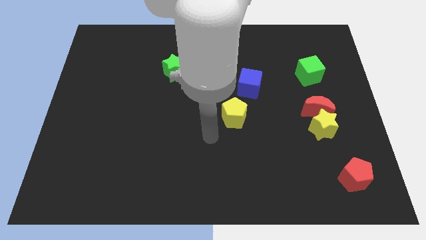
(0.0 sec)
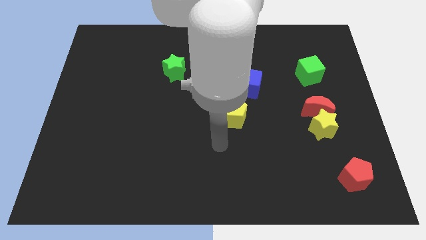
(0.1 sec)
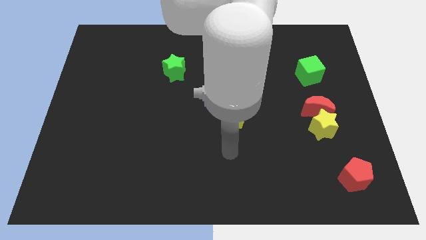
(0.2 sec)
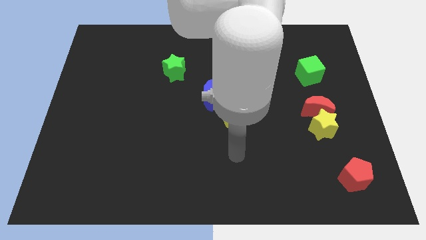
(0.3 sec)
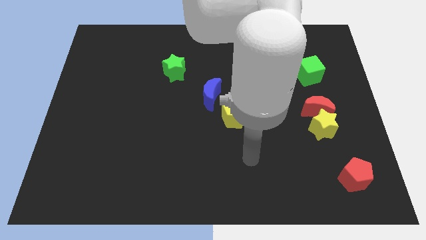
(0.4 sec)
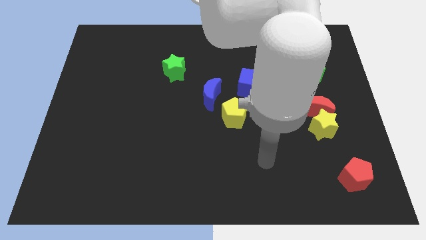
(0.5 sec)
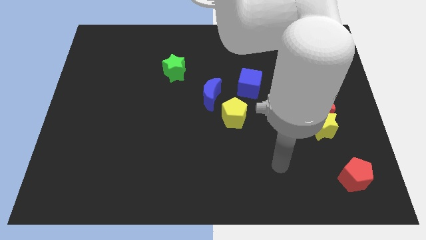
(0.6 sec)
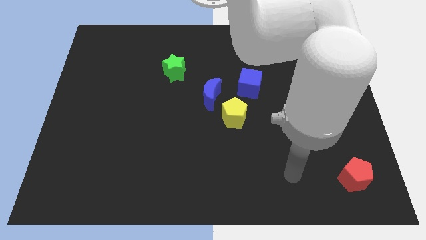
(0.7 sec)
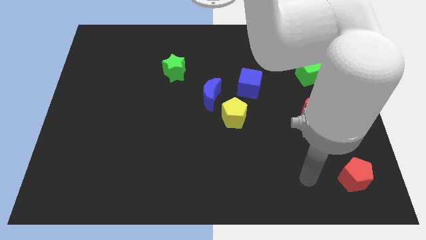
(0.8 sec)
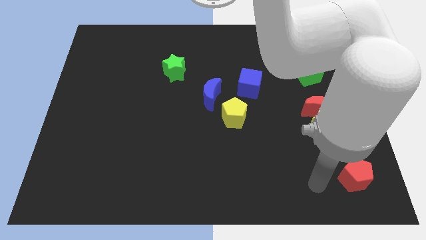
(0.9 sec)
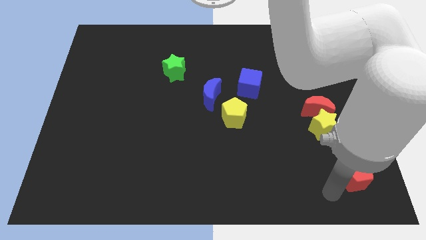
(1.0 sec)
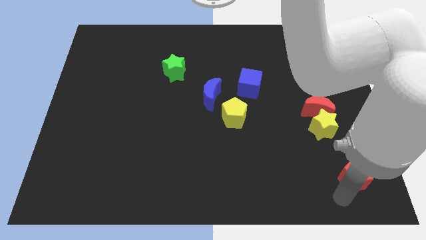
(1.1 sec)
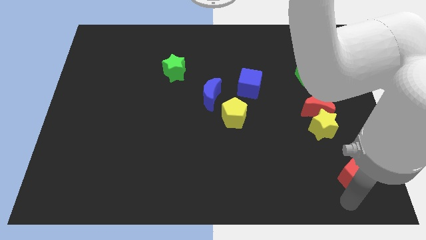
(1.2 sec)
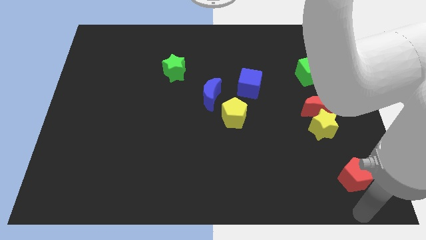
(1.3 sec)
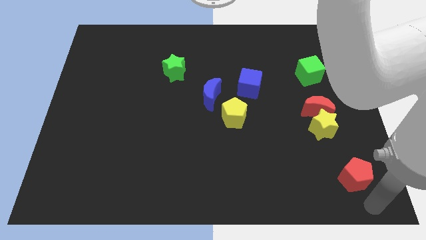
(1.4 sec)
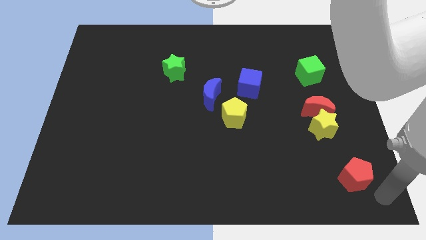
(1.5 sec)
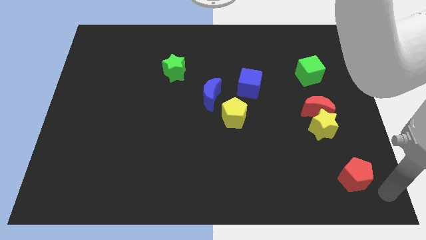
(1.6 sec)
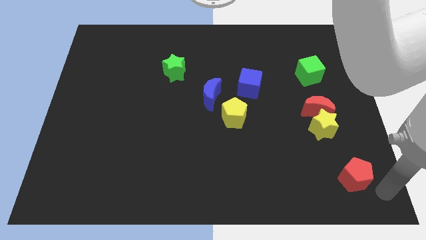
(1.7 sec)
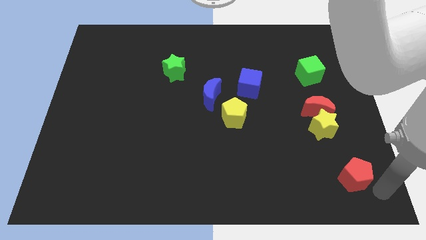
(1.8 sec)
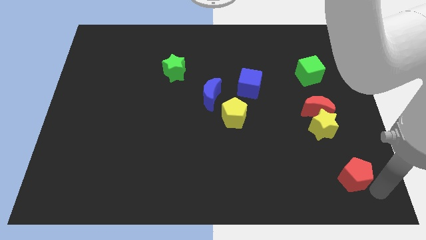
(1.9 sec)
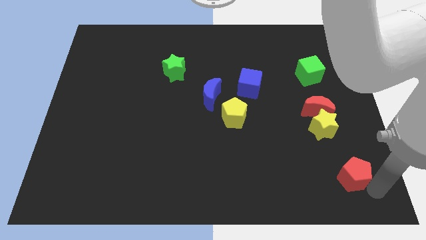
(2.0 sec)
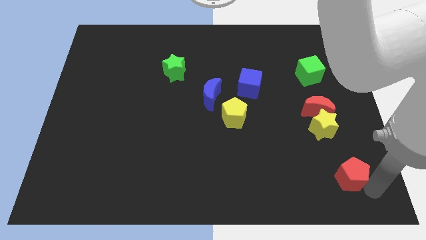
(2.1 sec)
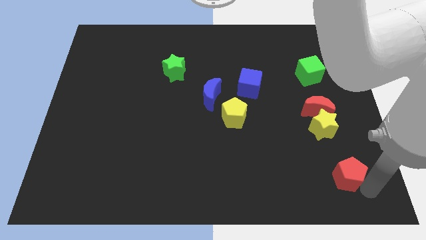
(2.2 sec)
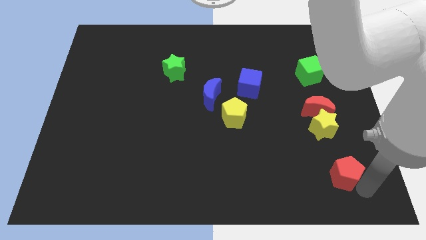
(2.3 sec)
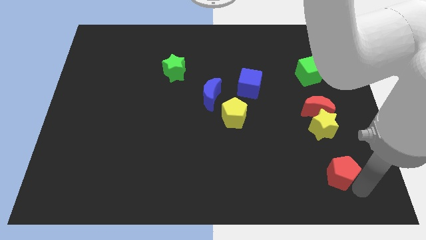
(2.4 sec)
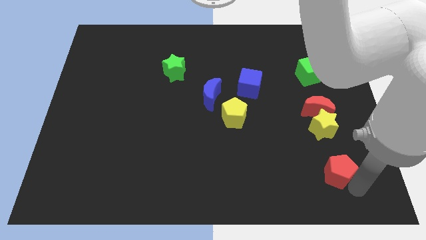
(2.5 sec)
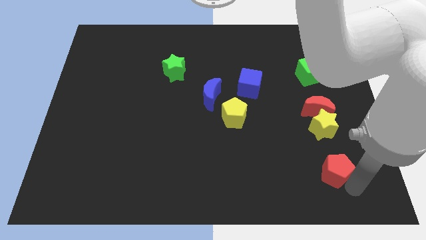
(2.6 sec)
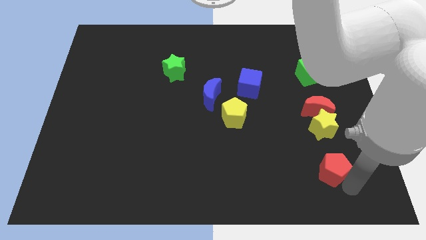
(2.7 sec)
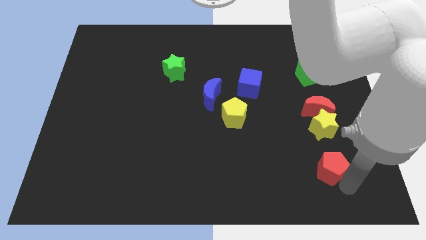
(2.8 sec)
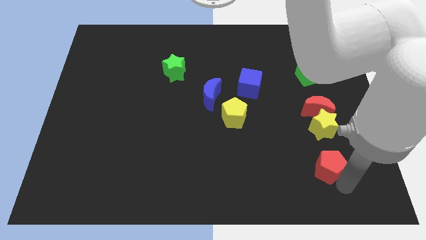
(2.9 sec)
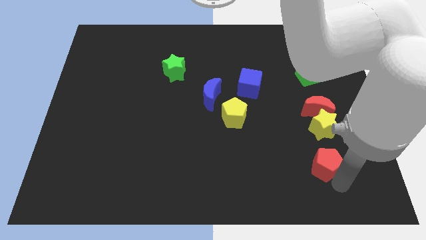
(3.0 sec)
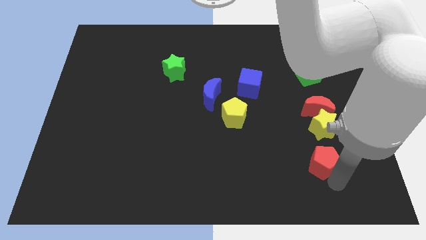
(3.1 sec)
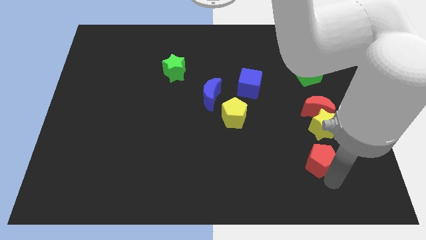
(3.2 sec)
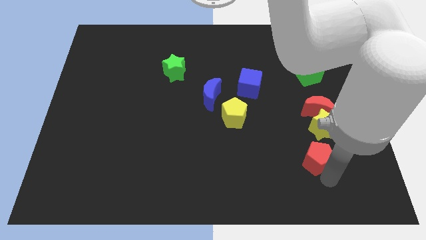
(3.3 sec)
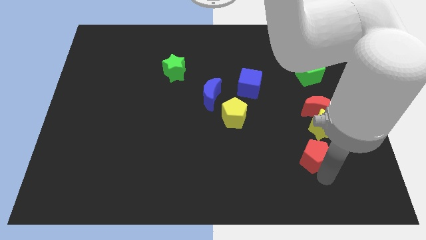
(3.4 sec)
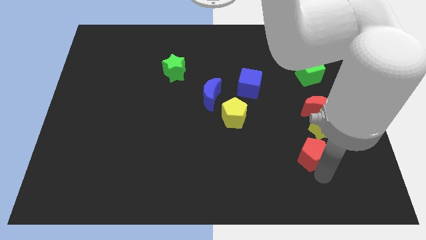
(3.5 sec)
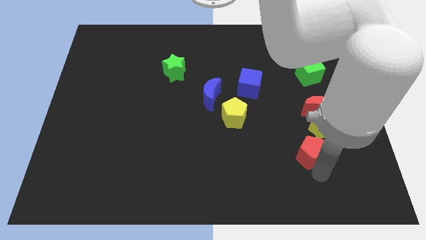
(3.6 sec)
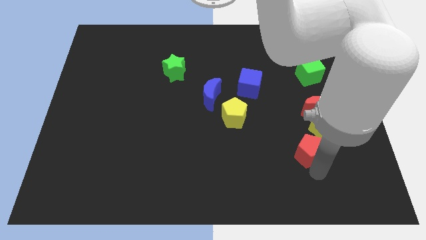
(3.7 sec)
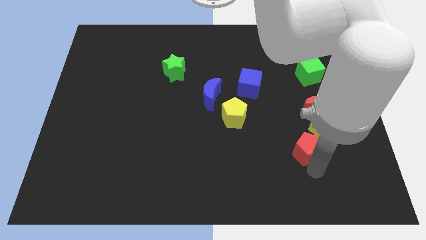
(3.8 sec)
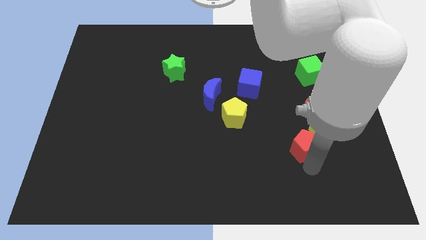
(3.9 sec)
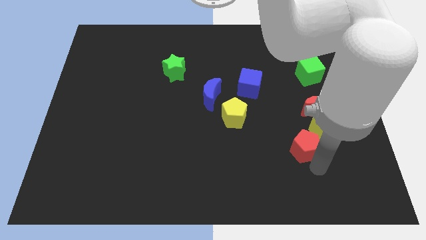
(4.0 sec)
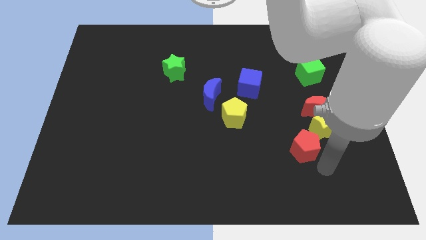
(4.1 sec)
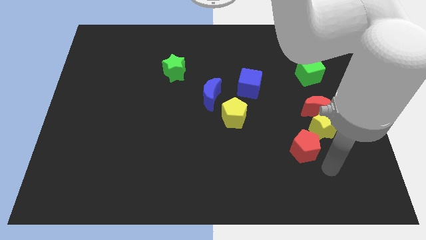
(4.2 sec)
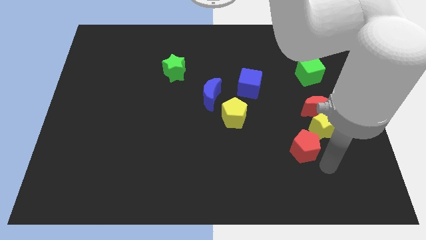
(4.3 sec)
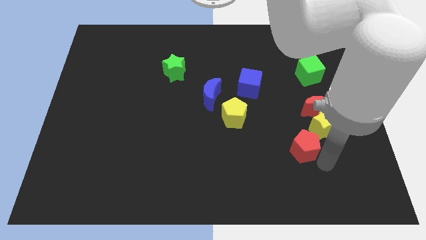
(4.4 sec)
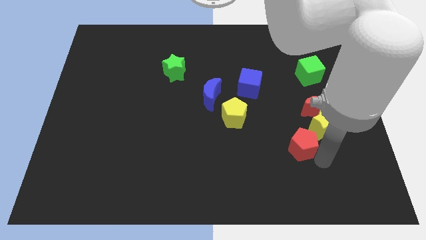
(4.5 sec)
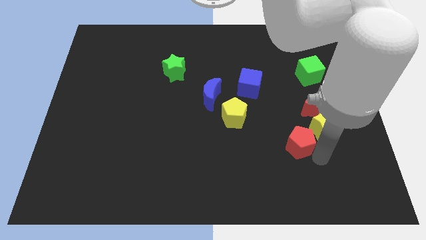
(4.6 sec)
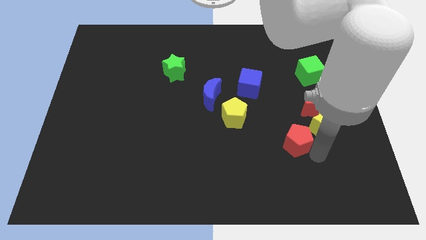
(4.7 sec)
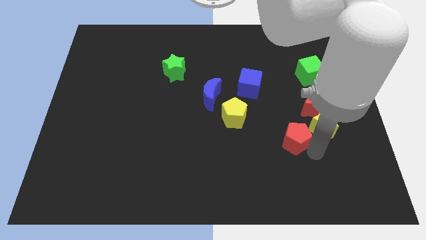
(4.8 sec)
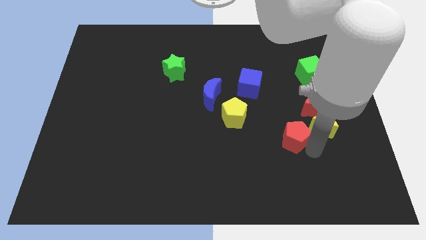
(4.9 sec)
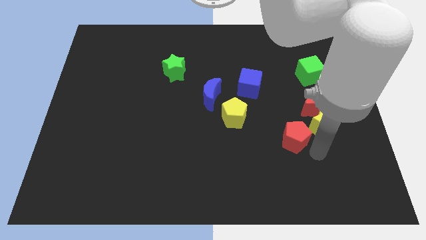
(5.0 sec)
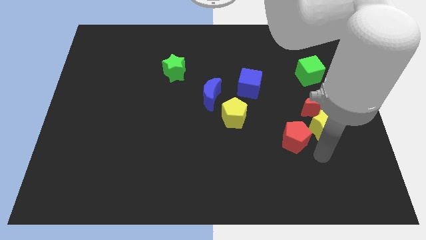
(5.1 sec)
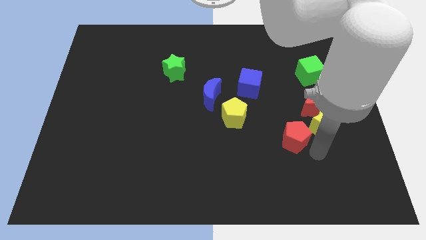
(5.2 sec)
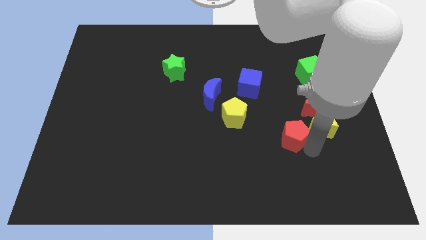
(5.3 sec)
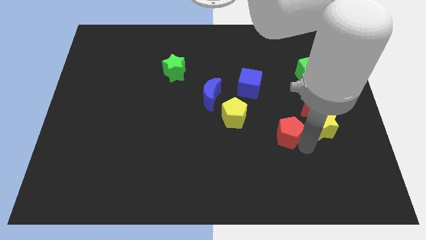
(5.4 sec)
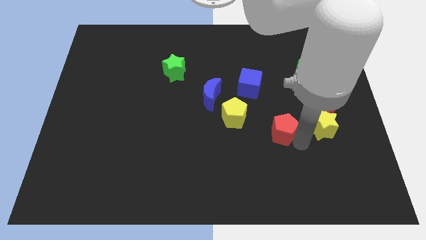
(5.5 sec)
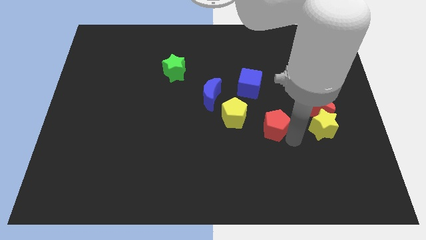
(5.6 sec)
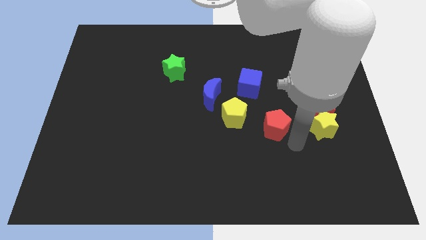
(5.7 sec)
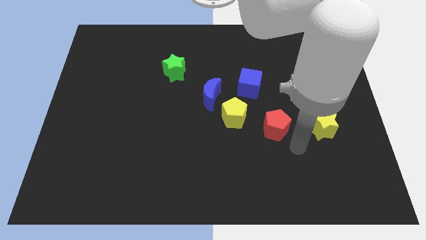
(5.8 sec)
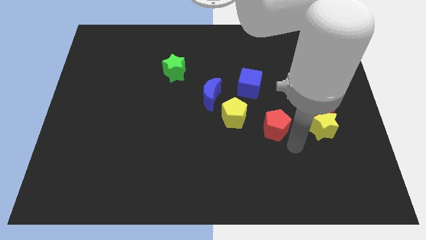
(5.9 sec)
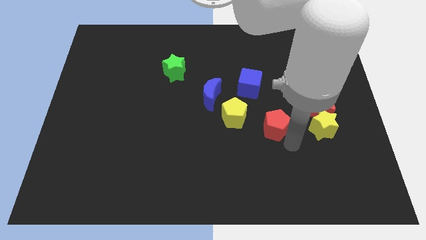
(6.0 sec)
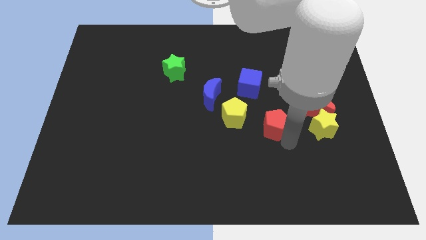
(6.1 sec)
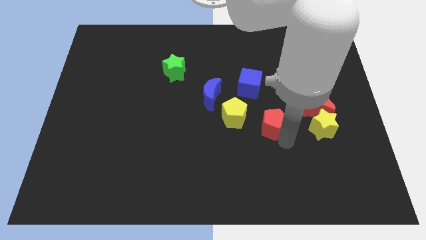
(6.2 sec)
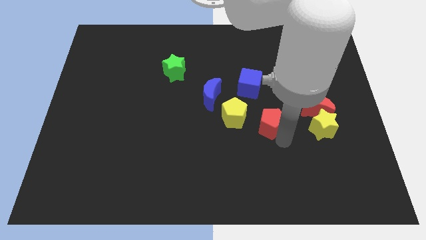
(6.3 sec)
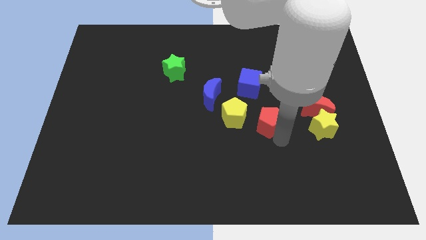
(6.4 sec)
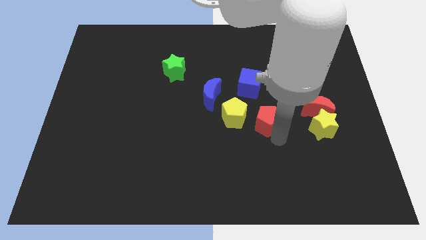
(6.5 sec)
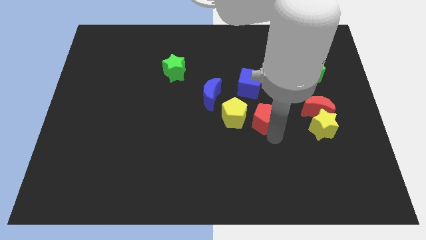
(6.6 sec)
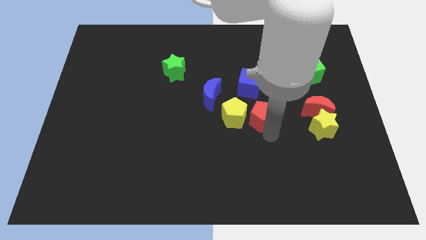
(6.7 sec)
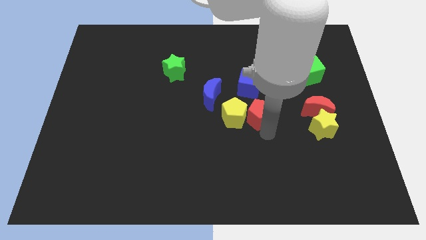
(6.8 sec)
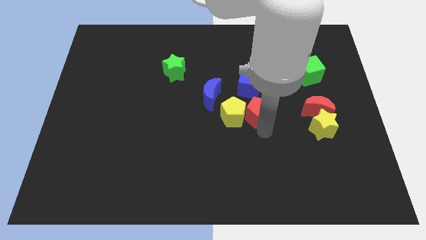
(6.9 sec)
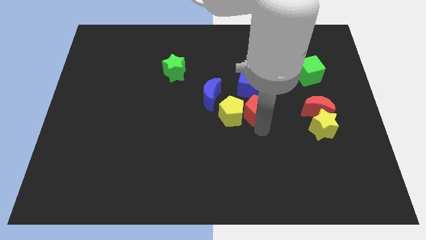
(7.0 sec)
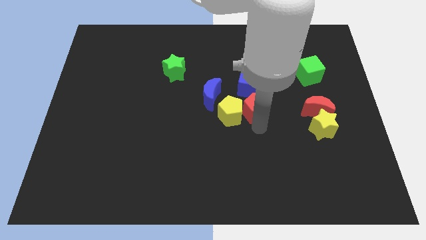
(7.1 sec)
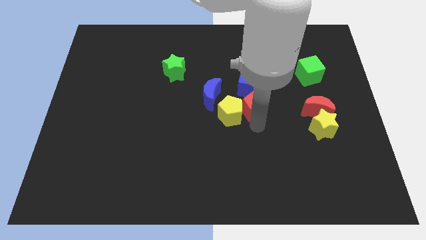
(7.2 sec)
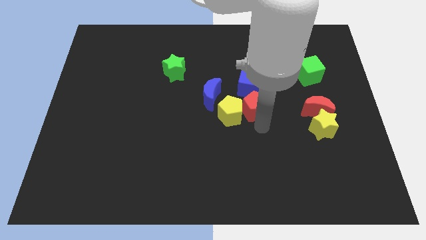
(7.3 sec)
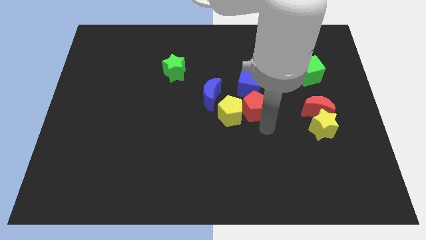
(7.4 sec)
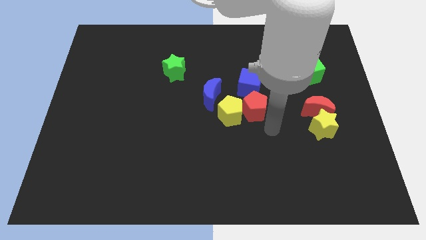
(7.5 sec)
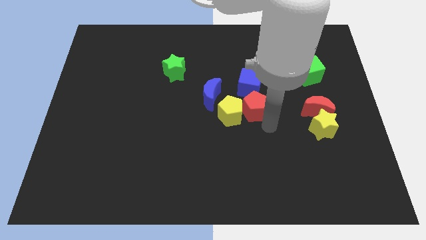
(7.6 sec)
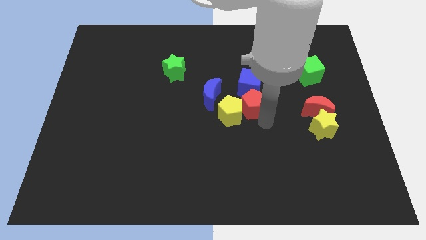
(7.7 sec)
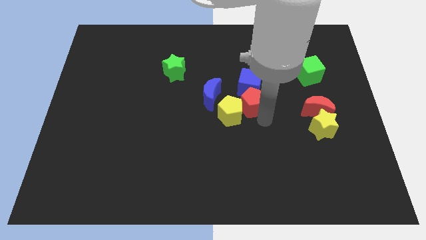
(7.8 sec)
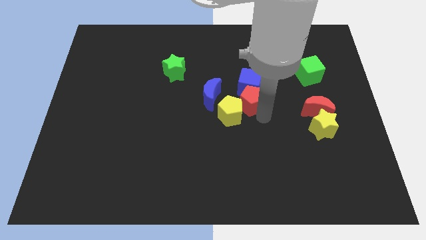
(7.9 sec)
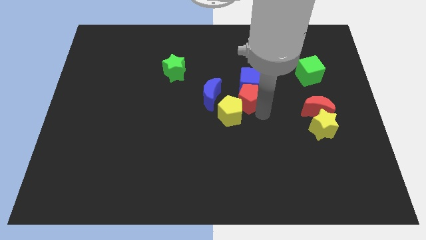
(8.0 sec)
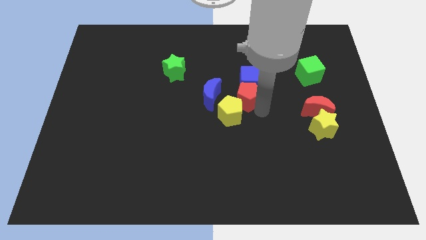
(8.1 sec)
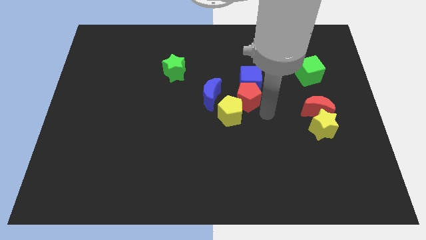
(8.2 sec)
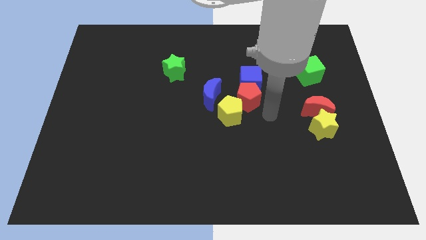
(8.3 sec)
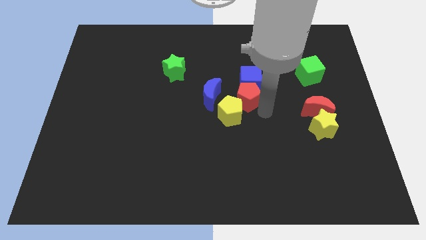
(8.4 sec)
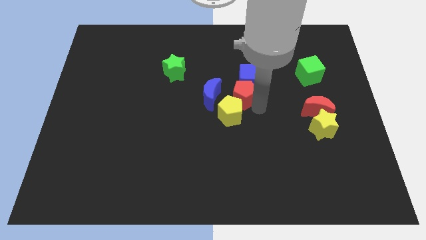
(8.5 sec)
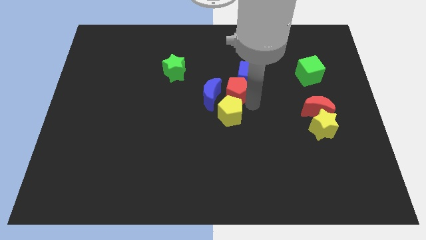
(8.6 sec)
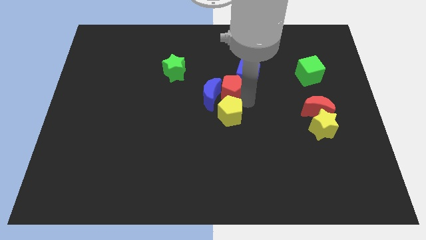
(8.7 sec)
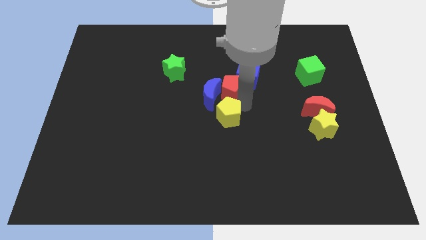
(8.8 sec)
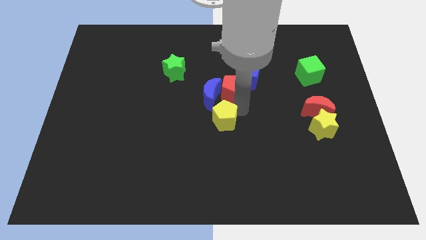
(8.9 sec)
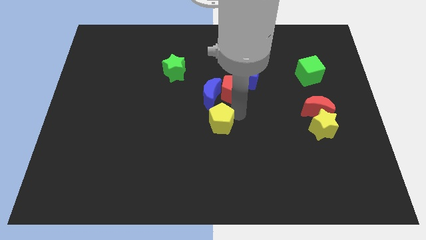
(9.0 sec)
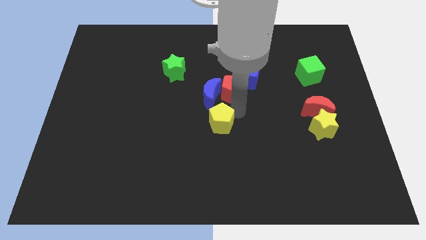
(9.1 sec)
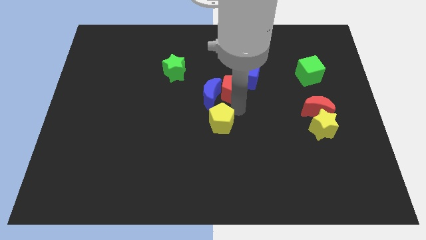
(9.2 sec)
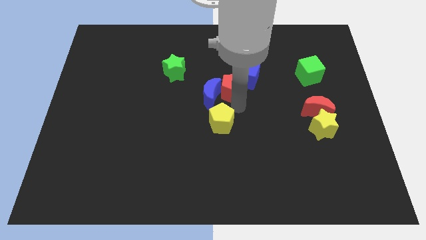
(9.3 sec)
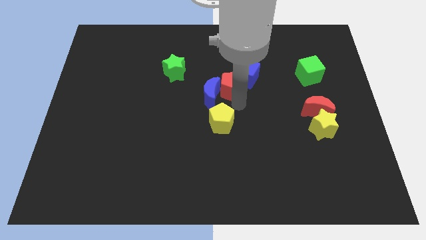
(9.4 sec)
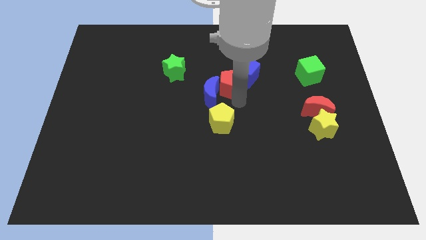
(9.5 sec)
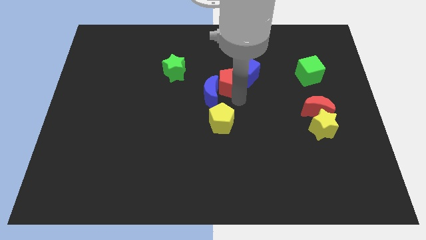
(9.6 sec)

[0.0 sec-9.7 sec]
push the red pentagon to the top of the blue moon
